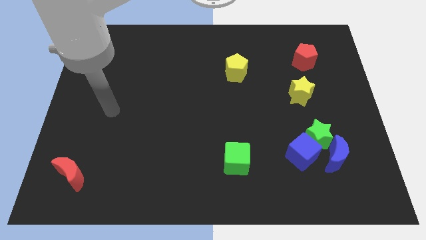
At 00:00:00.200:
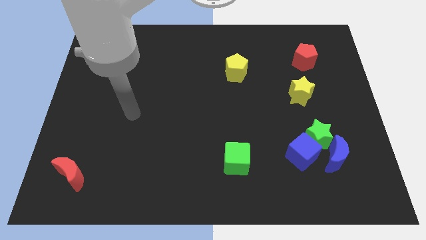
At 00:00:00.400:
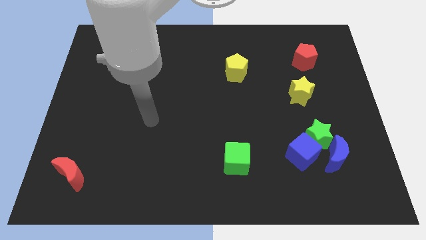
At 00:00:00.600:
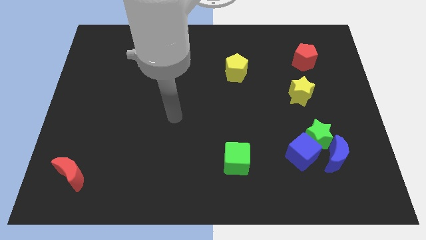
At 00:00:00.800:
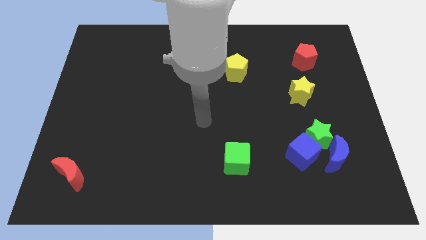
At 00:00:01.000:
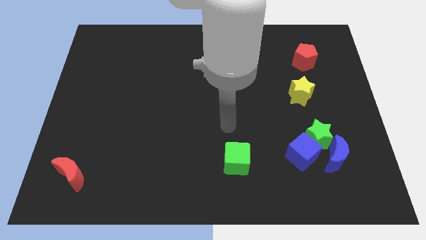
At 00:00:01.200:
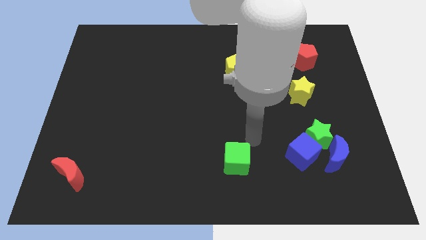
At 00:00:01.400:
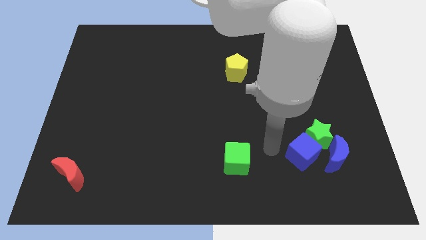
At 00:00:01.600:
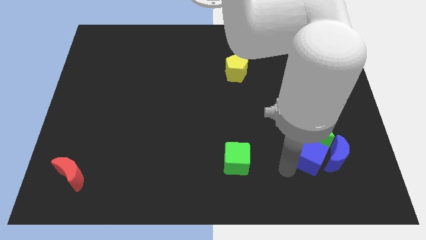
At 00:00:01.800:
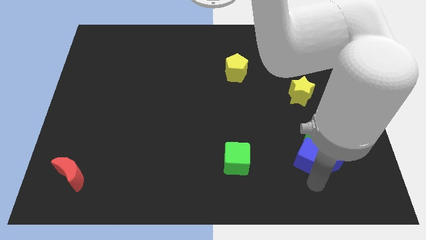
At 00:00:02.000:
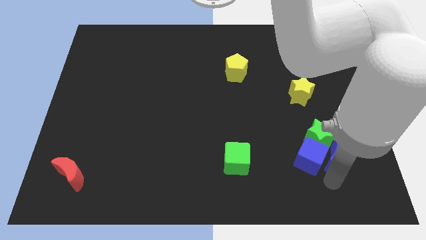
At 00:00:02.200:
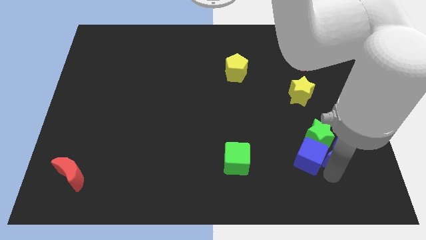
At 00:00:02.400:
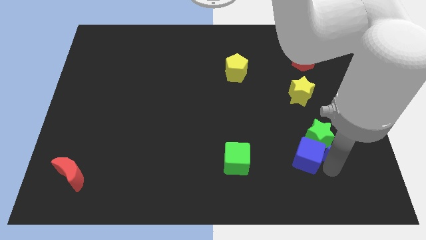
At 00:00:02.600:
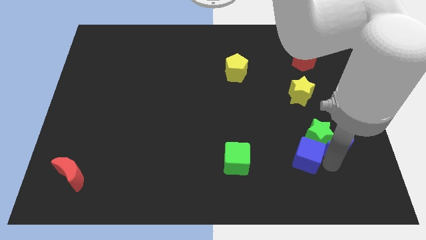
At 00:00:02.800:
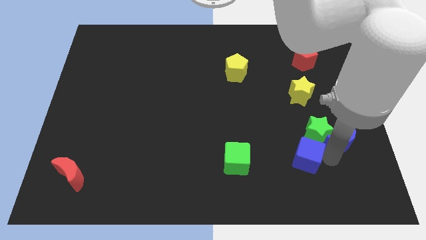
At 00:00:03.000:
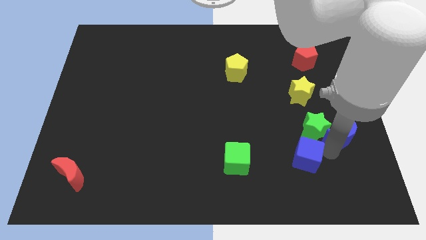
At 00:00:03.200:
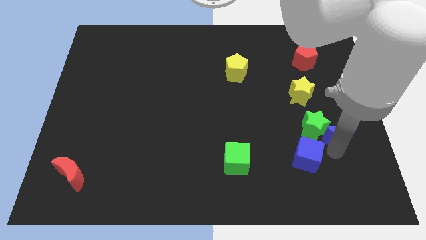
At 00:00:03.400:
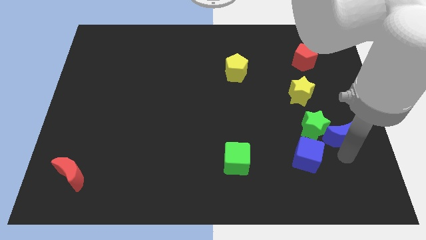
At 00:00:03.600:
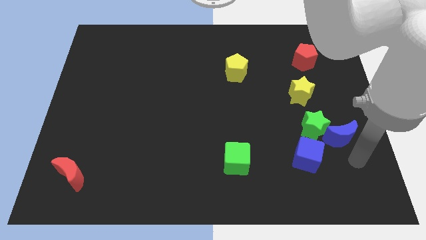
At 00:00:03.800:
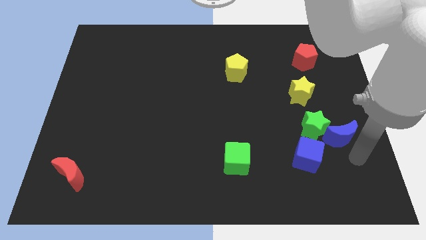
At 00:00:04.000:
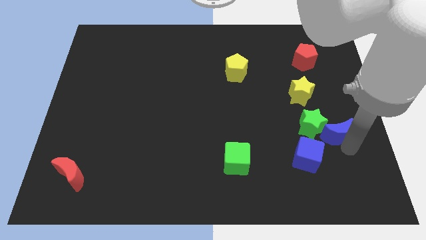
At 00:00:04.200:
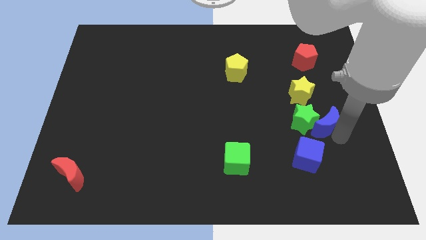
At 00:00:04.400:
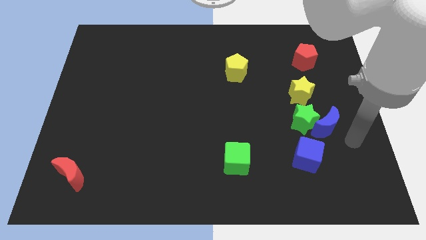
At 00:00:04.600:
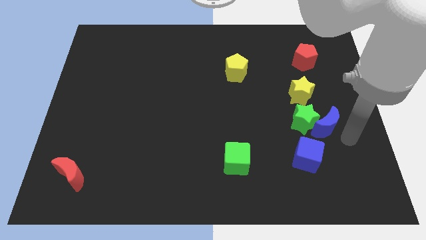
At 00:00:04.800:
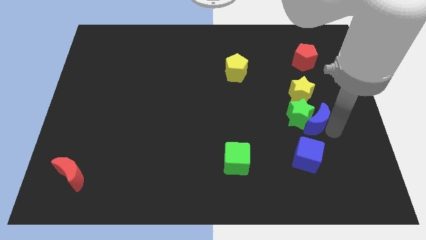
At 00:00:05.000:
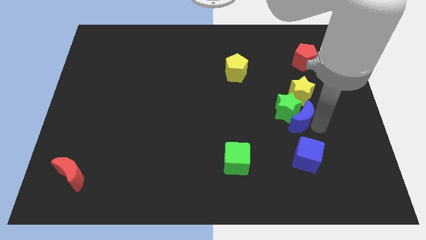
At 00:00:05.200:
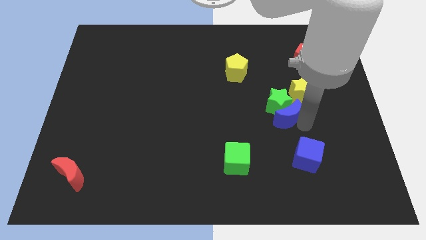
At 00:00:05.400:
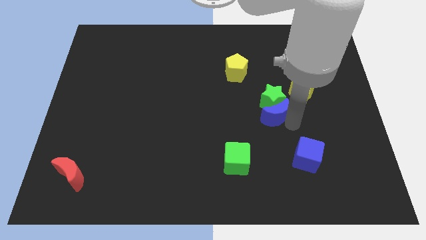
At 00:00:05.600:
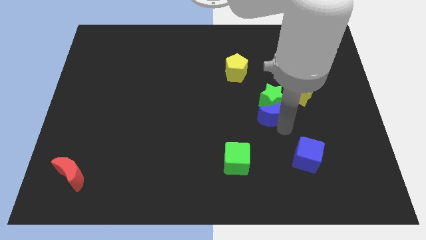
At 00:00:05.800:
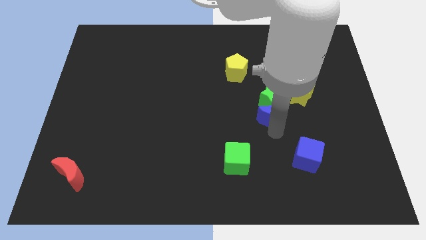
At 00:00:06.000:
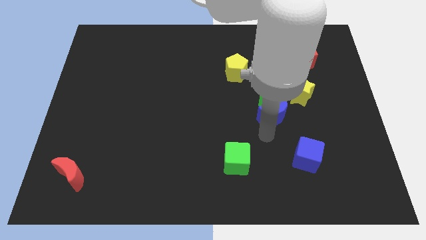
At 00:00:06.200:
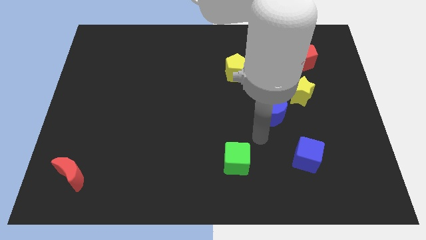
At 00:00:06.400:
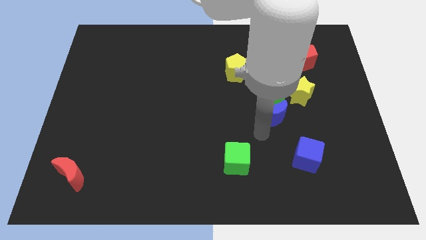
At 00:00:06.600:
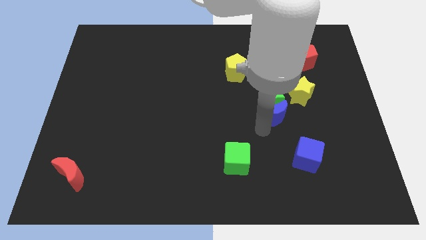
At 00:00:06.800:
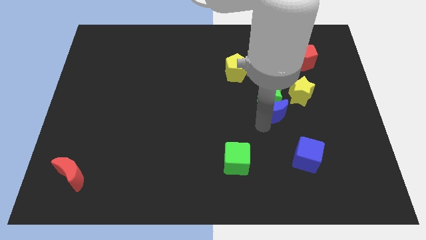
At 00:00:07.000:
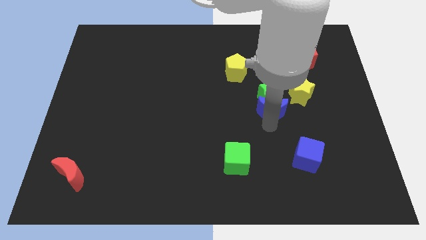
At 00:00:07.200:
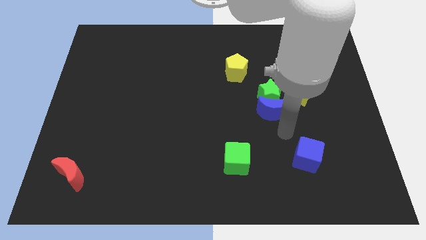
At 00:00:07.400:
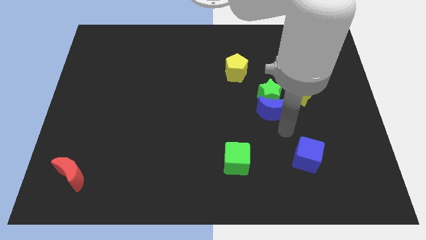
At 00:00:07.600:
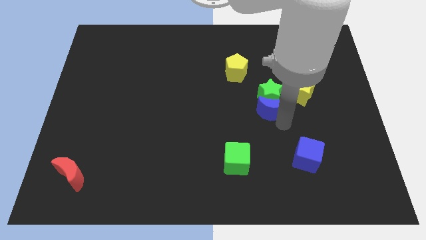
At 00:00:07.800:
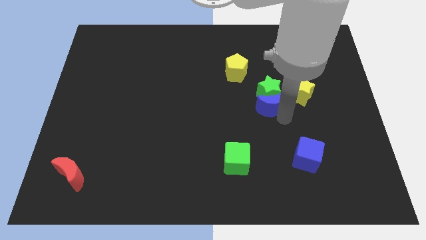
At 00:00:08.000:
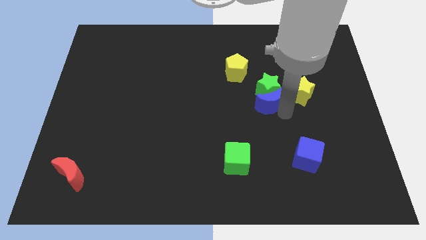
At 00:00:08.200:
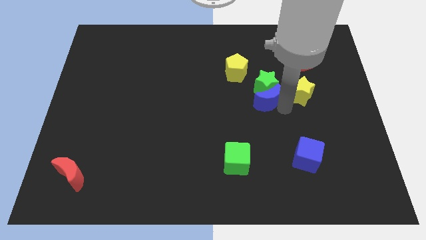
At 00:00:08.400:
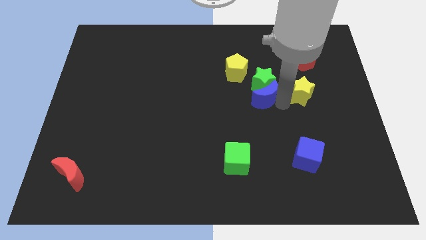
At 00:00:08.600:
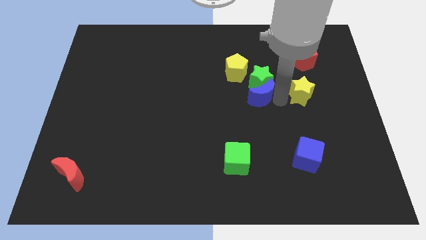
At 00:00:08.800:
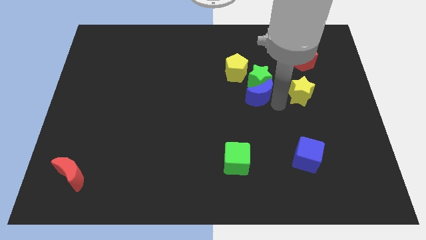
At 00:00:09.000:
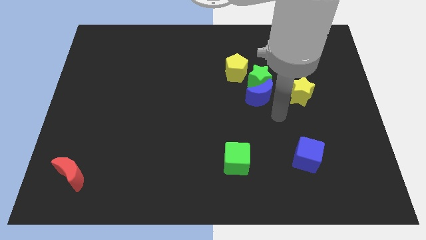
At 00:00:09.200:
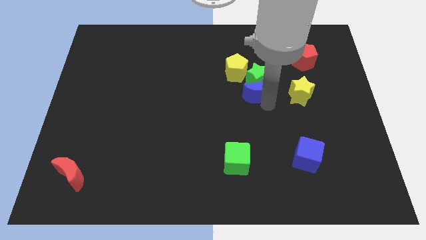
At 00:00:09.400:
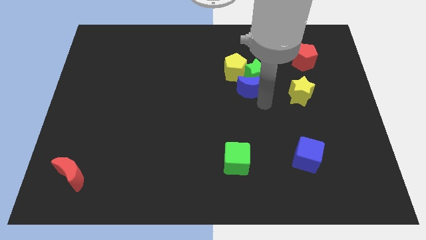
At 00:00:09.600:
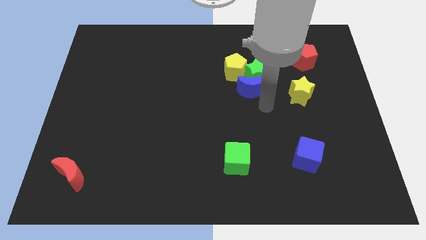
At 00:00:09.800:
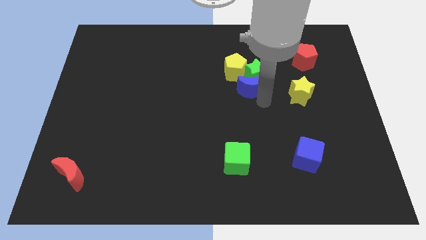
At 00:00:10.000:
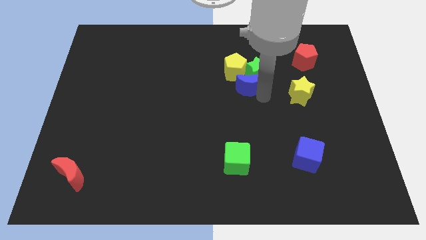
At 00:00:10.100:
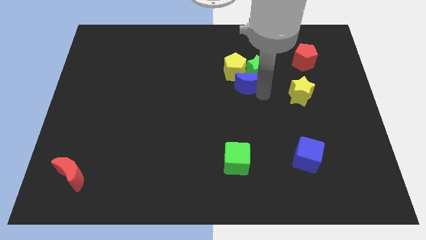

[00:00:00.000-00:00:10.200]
push the blue moon to the yellow pentagon

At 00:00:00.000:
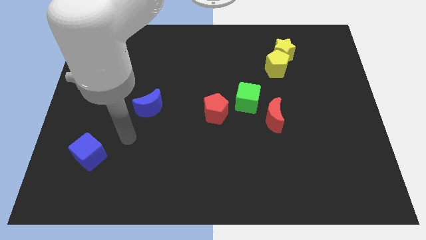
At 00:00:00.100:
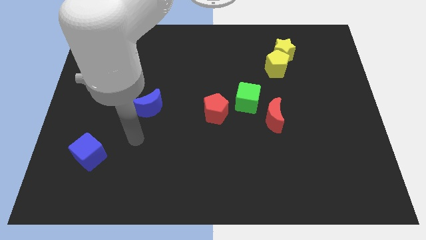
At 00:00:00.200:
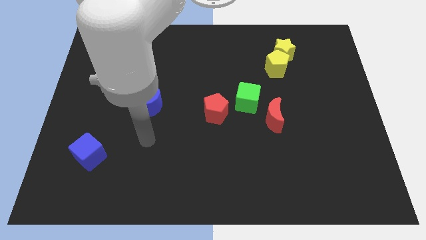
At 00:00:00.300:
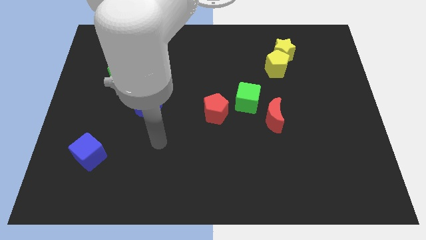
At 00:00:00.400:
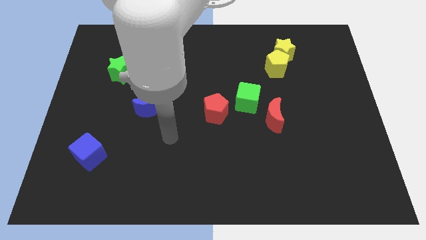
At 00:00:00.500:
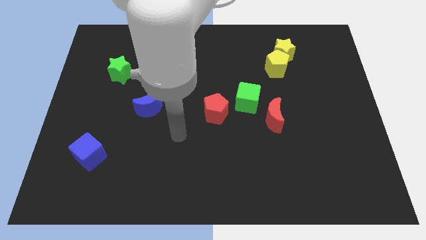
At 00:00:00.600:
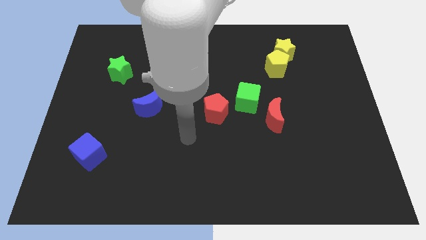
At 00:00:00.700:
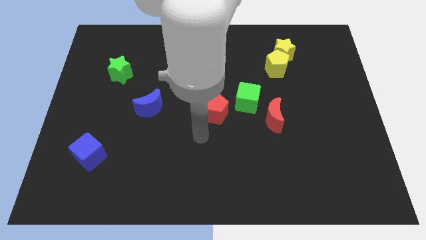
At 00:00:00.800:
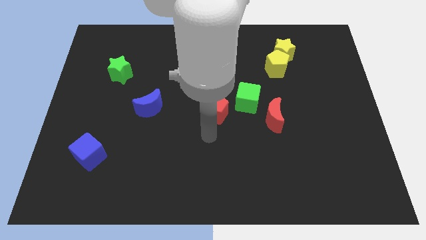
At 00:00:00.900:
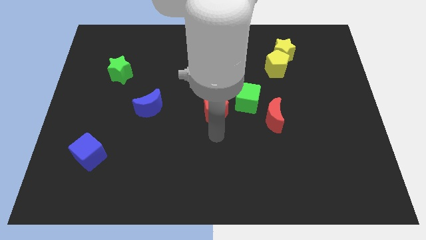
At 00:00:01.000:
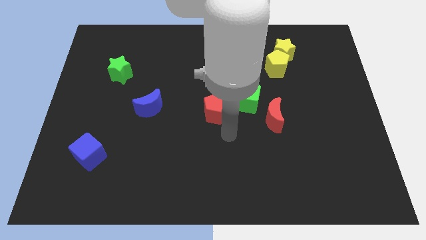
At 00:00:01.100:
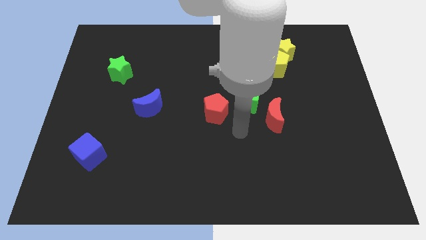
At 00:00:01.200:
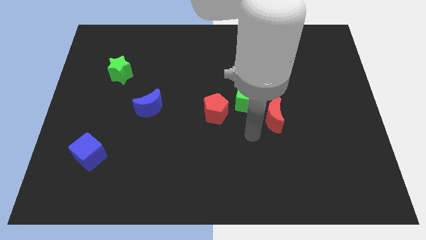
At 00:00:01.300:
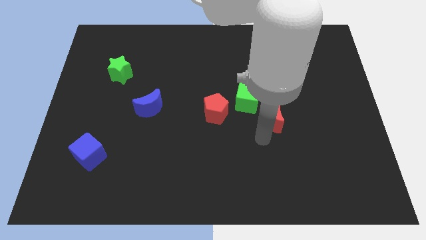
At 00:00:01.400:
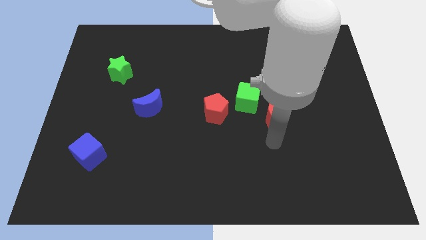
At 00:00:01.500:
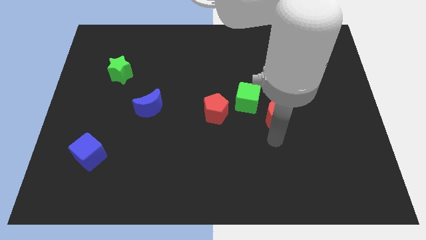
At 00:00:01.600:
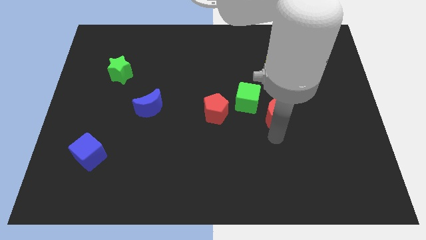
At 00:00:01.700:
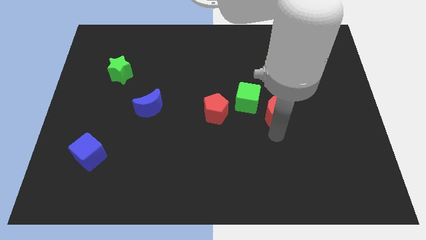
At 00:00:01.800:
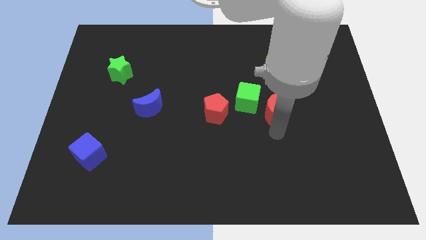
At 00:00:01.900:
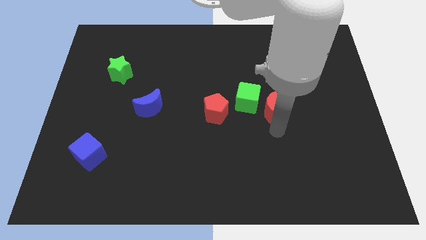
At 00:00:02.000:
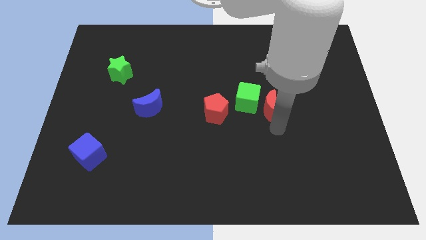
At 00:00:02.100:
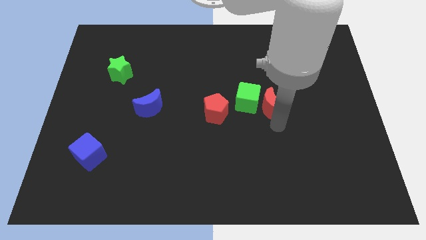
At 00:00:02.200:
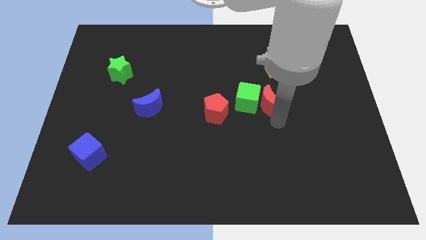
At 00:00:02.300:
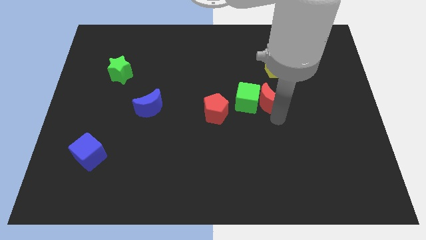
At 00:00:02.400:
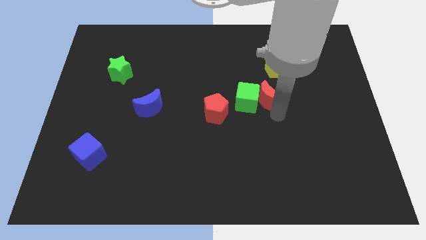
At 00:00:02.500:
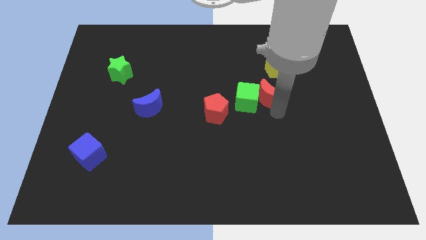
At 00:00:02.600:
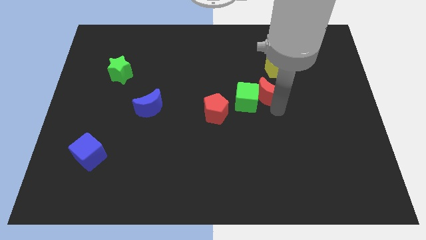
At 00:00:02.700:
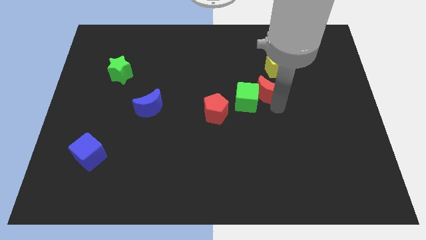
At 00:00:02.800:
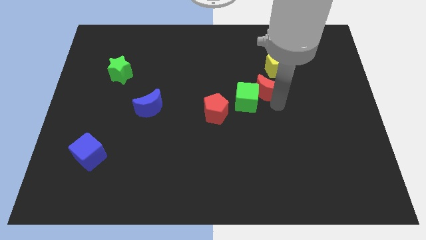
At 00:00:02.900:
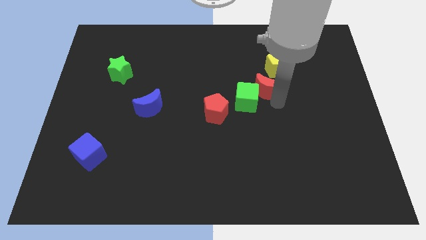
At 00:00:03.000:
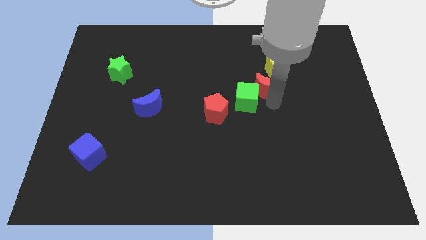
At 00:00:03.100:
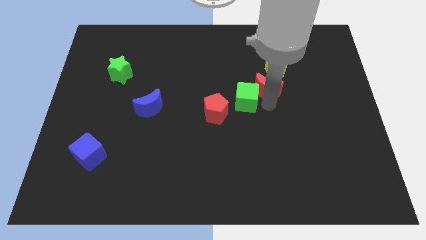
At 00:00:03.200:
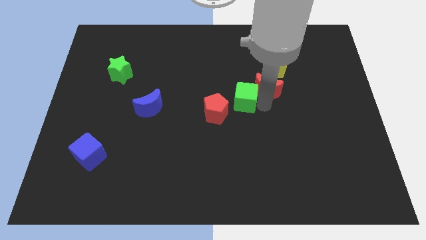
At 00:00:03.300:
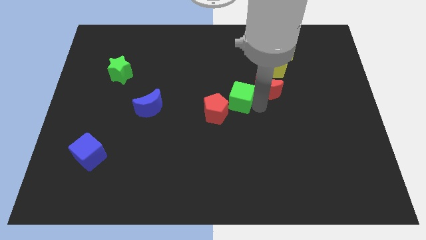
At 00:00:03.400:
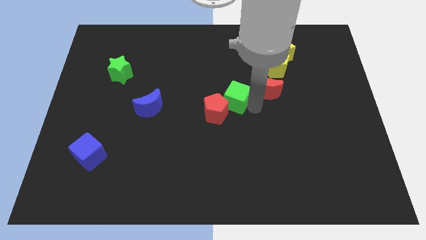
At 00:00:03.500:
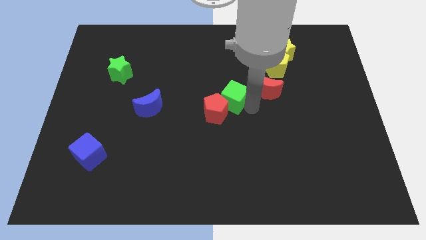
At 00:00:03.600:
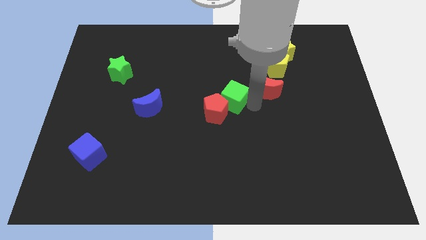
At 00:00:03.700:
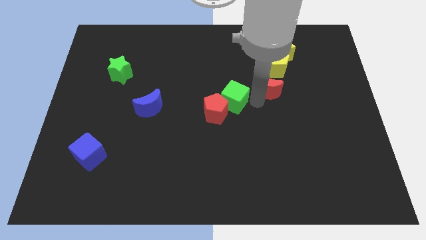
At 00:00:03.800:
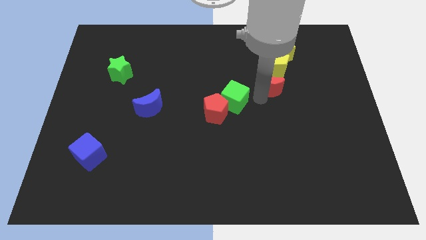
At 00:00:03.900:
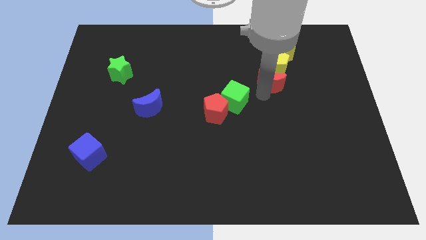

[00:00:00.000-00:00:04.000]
move the red moon towards the yellow pentagon
